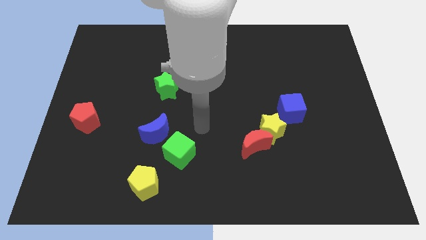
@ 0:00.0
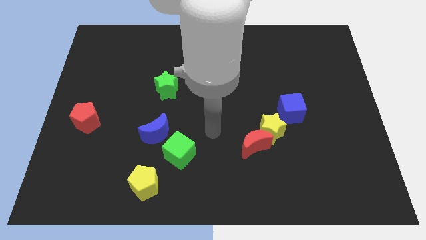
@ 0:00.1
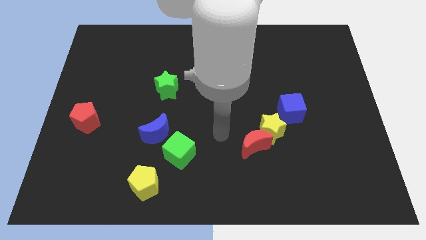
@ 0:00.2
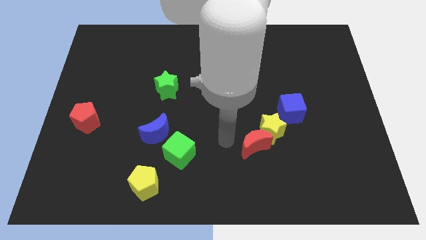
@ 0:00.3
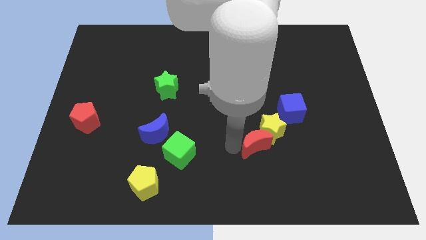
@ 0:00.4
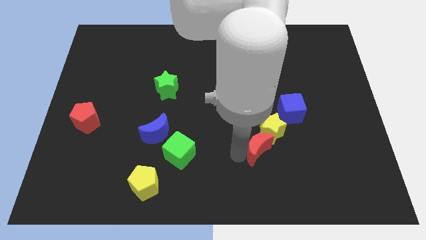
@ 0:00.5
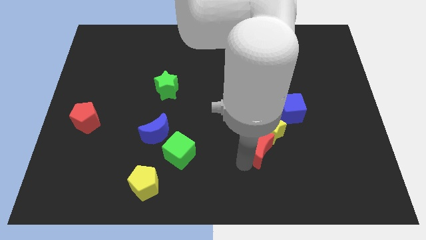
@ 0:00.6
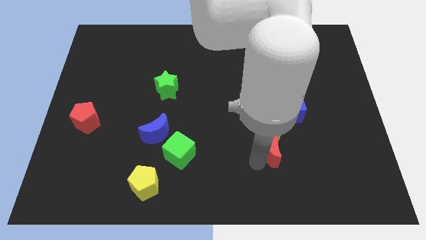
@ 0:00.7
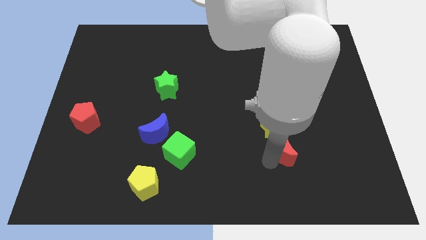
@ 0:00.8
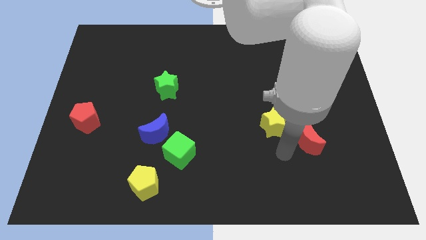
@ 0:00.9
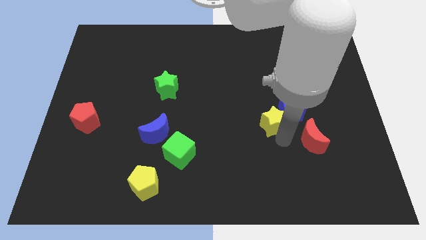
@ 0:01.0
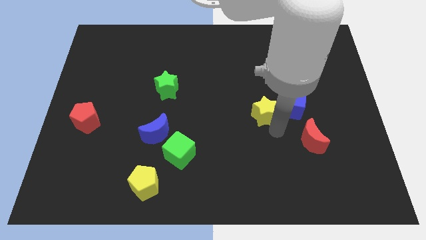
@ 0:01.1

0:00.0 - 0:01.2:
move the red moon away from the yellow star

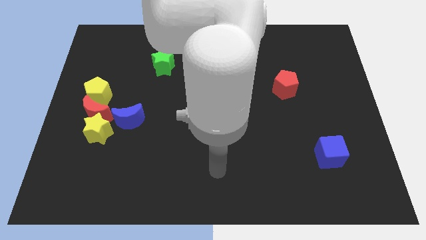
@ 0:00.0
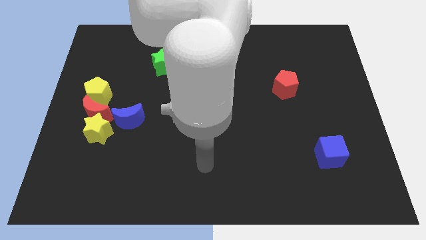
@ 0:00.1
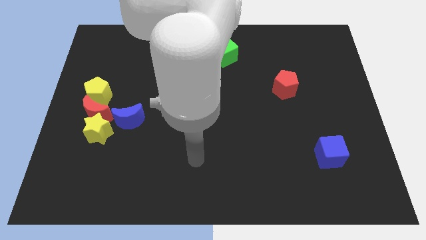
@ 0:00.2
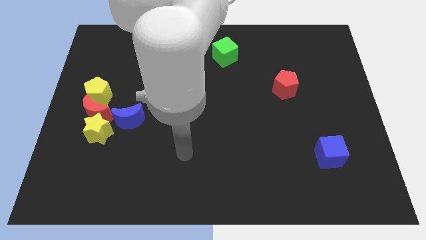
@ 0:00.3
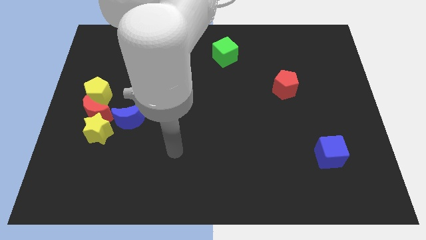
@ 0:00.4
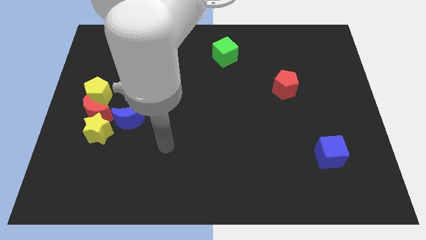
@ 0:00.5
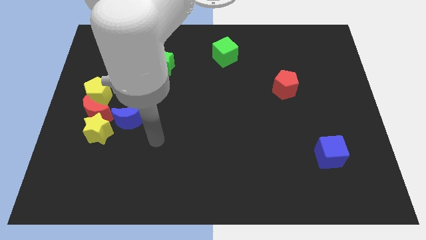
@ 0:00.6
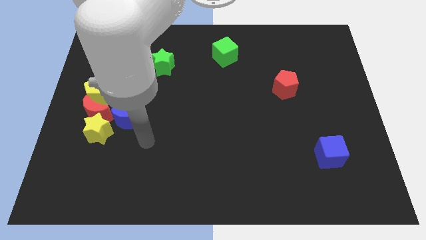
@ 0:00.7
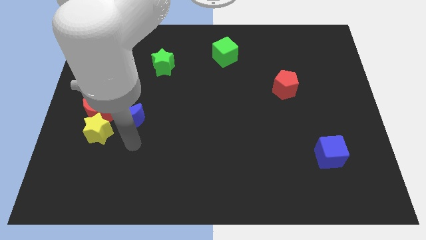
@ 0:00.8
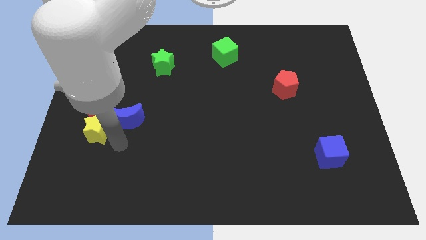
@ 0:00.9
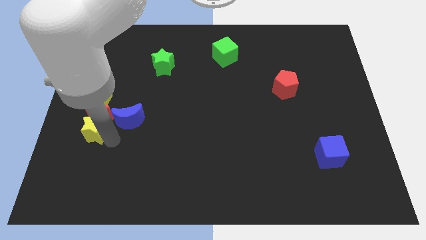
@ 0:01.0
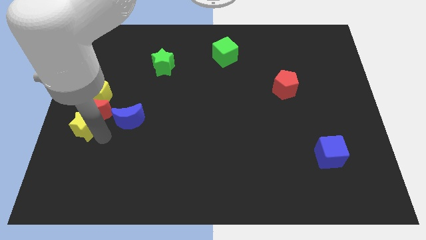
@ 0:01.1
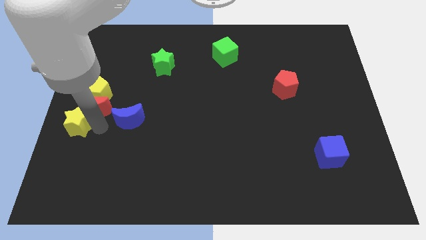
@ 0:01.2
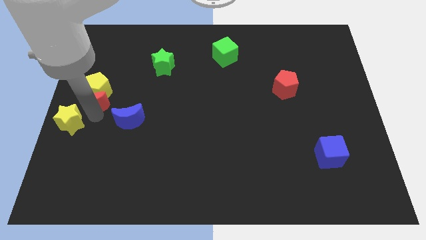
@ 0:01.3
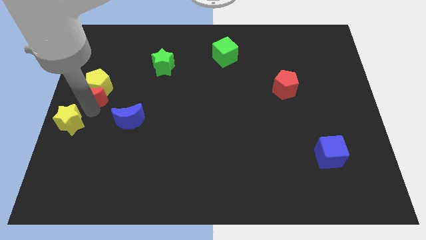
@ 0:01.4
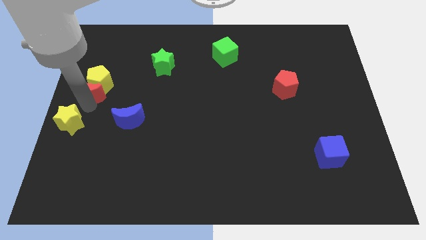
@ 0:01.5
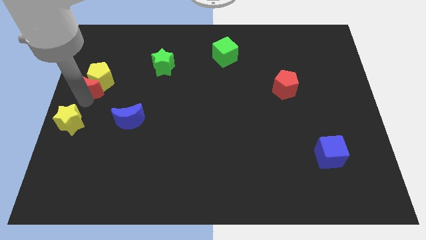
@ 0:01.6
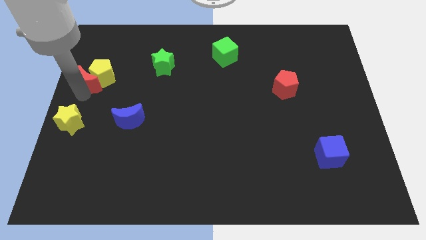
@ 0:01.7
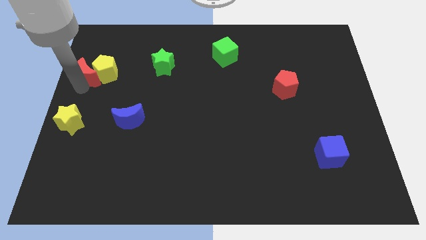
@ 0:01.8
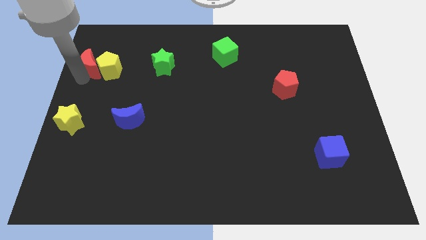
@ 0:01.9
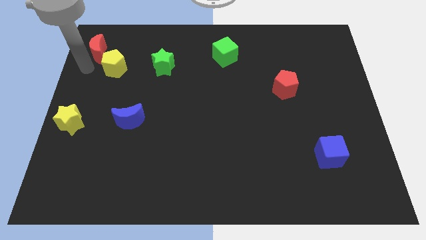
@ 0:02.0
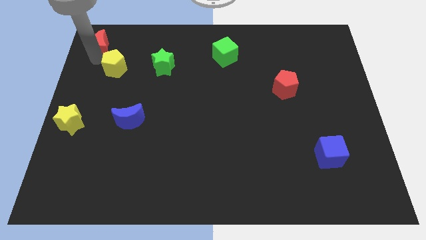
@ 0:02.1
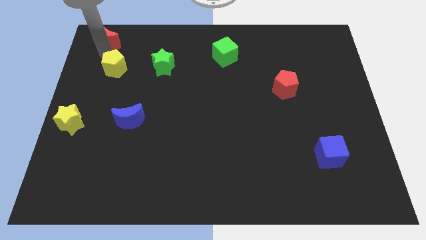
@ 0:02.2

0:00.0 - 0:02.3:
move the yellow pentagon away from the red moon

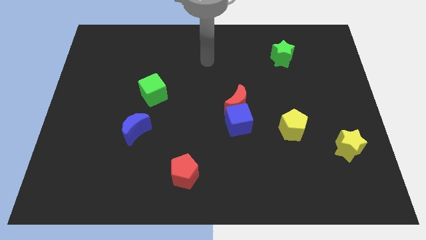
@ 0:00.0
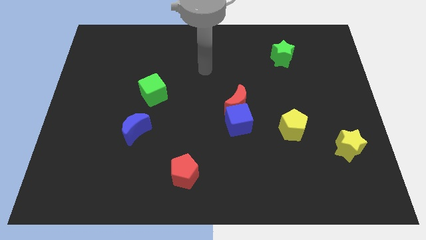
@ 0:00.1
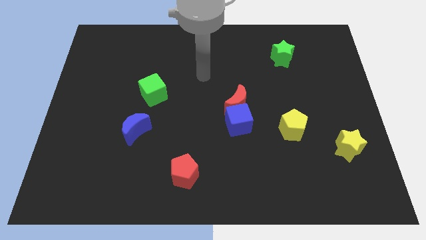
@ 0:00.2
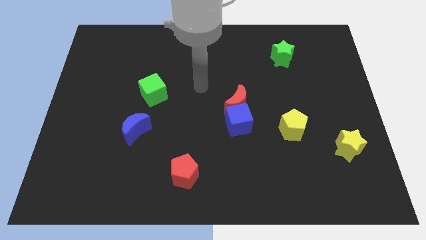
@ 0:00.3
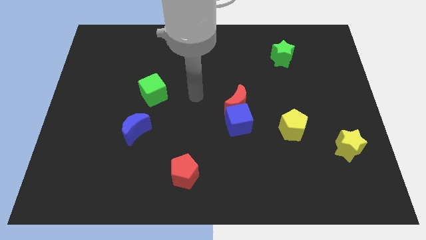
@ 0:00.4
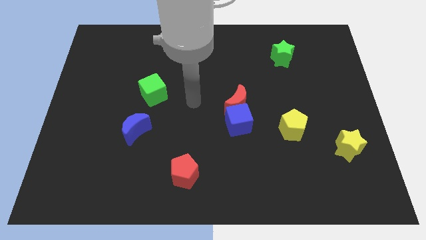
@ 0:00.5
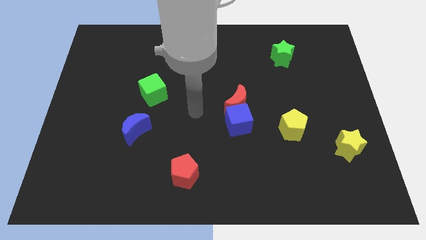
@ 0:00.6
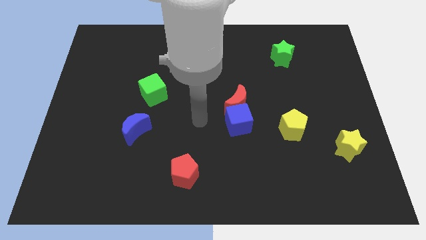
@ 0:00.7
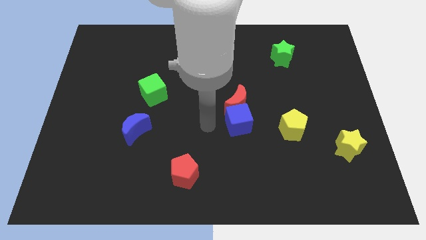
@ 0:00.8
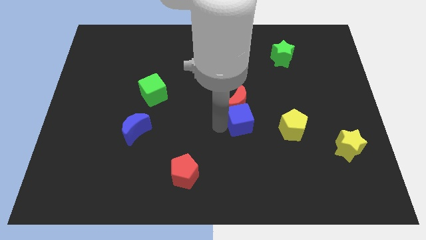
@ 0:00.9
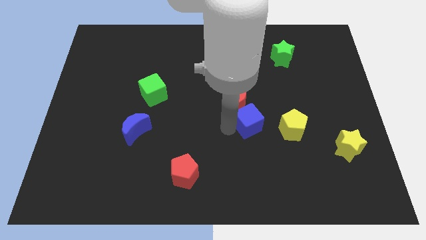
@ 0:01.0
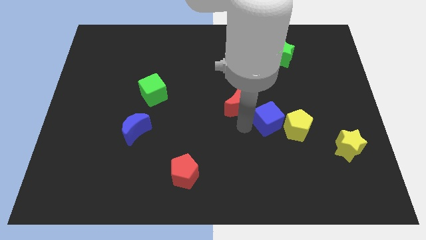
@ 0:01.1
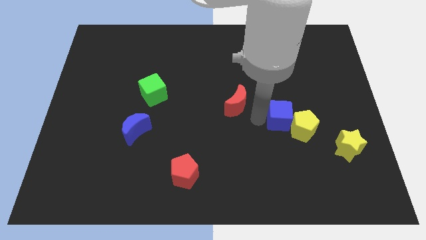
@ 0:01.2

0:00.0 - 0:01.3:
move the red moon away from the blue cube

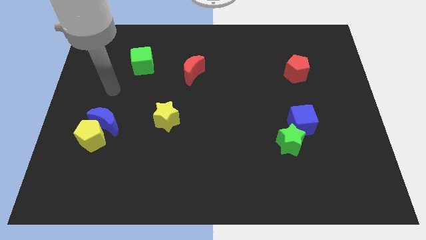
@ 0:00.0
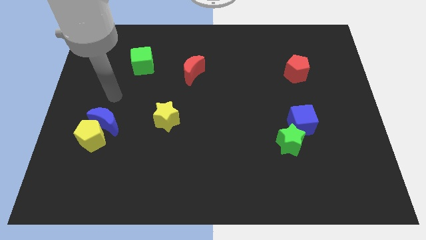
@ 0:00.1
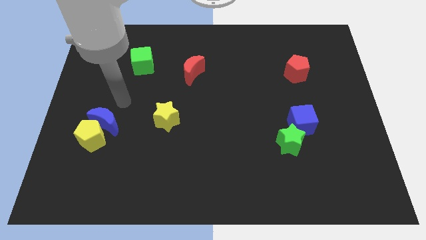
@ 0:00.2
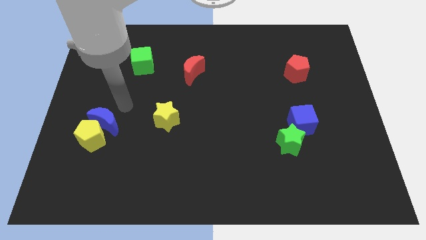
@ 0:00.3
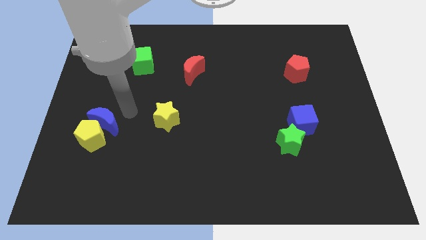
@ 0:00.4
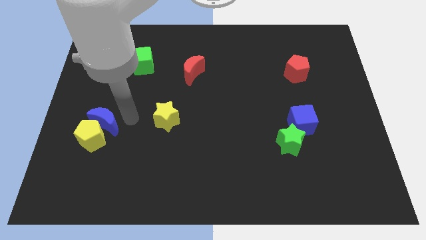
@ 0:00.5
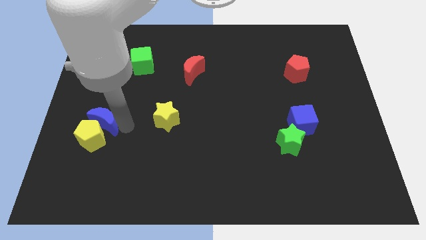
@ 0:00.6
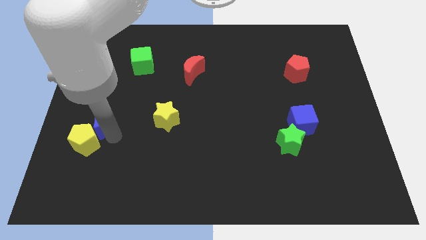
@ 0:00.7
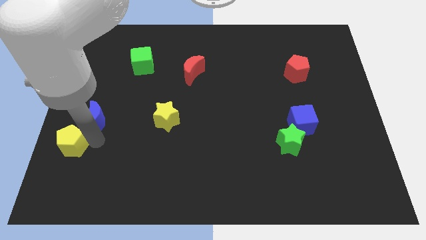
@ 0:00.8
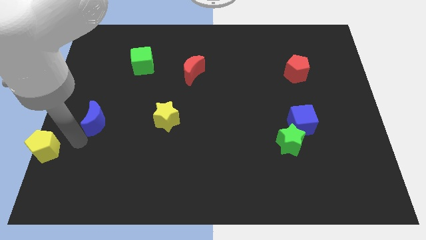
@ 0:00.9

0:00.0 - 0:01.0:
pull the blue moon apart from the yellow pentagon

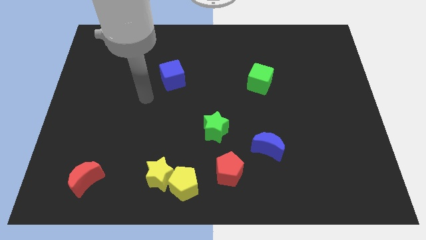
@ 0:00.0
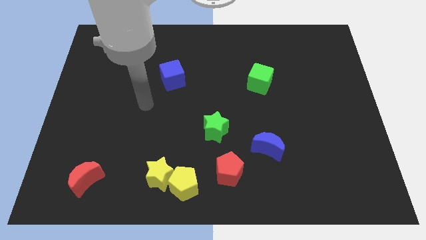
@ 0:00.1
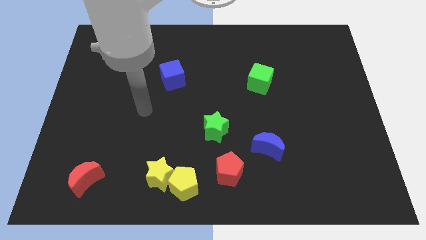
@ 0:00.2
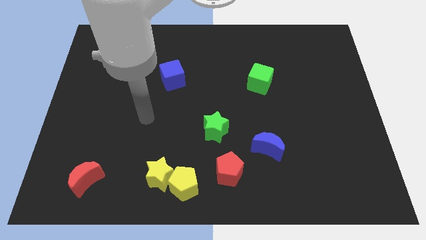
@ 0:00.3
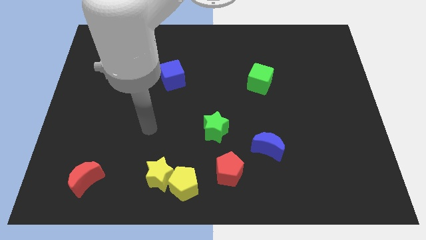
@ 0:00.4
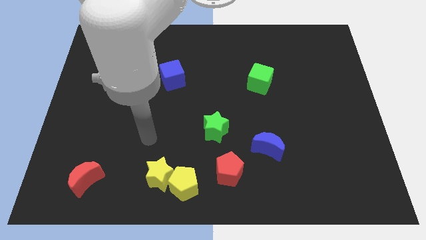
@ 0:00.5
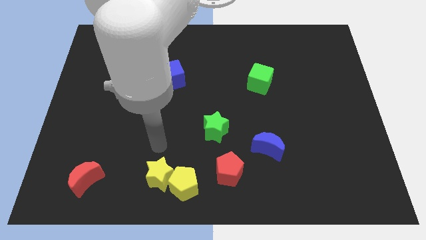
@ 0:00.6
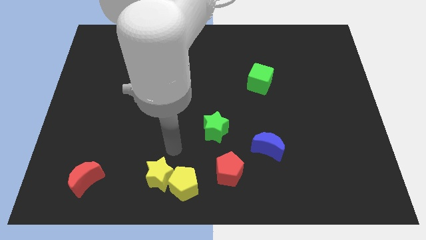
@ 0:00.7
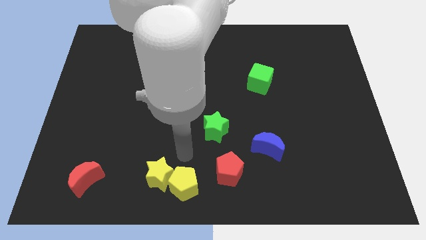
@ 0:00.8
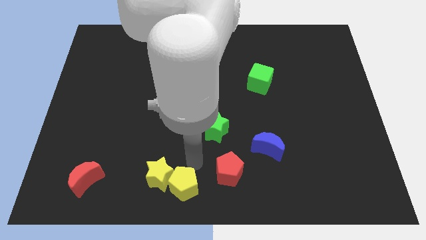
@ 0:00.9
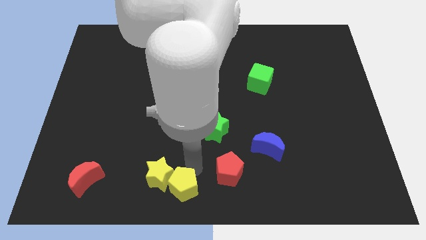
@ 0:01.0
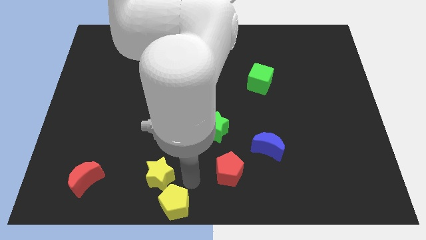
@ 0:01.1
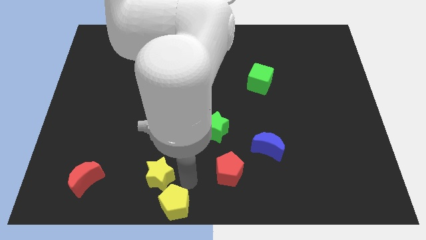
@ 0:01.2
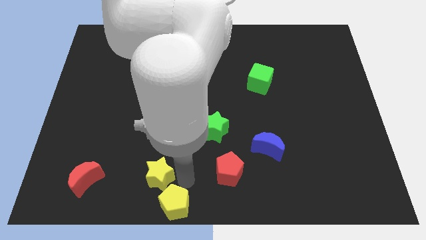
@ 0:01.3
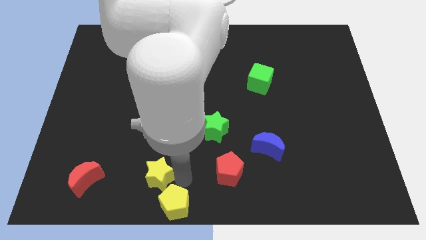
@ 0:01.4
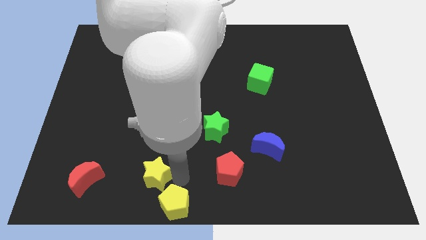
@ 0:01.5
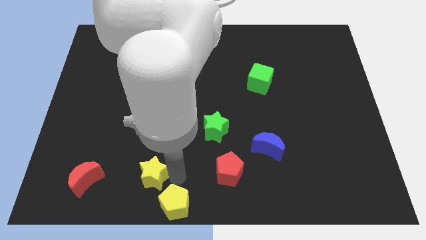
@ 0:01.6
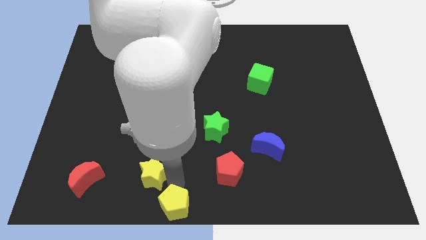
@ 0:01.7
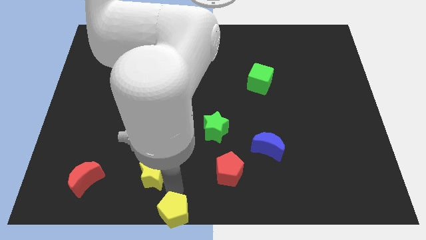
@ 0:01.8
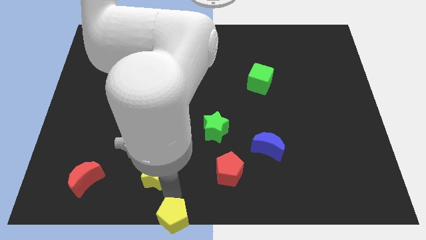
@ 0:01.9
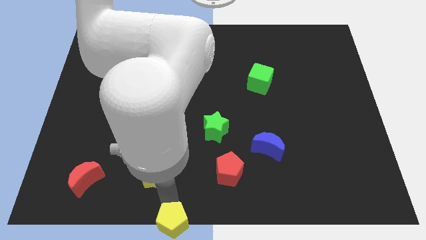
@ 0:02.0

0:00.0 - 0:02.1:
separate the yellow star from the yellow pentagon

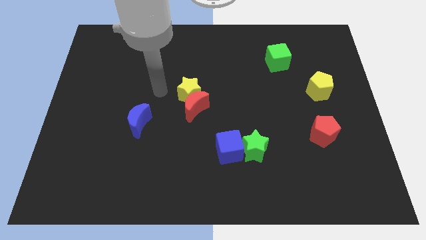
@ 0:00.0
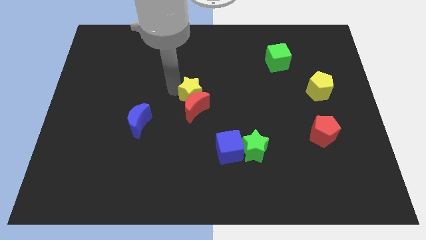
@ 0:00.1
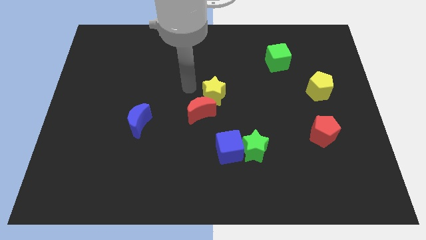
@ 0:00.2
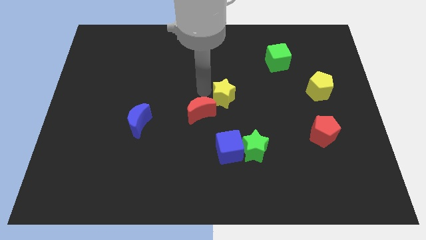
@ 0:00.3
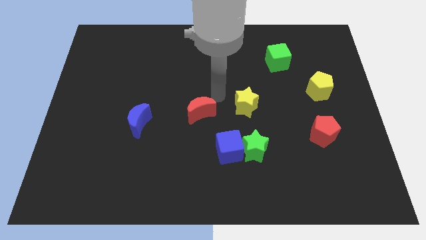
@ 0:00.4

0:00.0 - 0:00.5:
pull the red moon apart from the yellow star

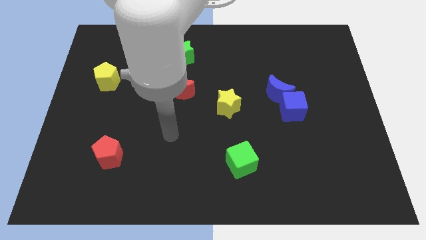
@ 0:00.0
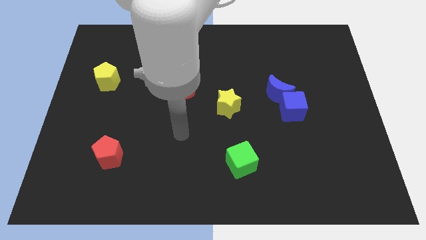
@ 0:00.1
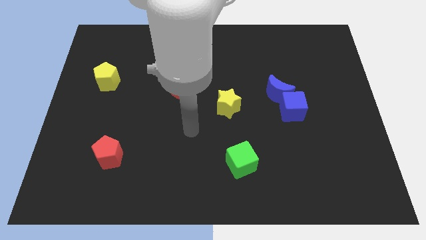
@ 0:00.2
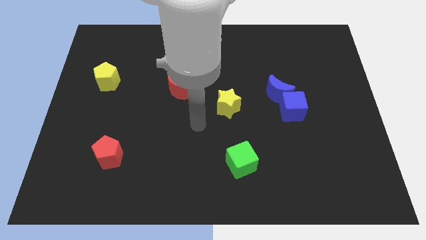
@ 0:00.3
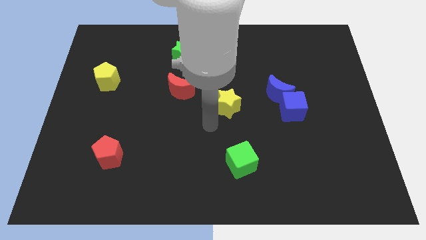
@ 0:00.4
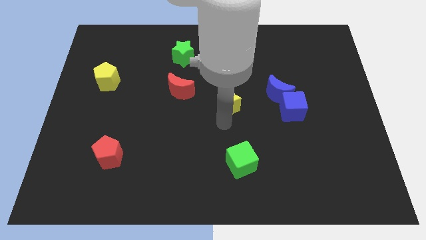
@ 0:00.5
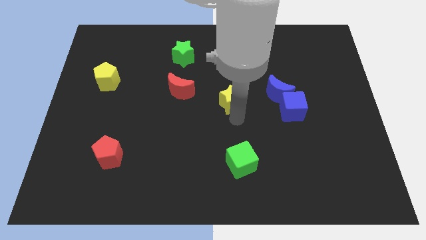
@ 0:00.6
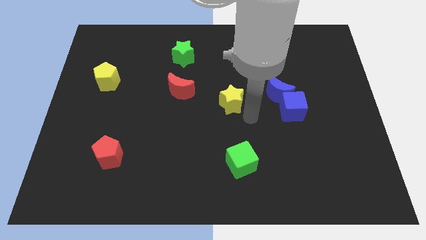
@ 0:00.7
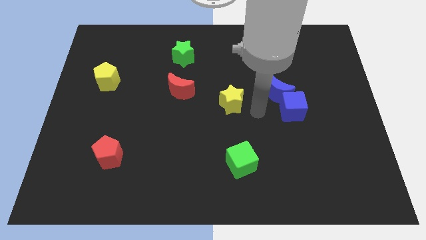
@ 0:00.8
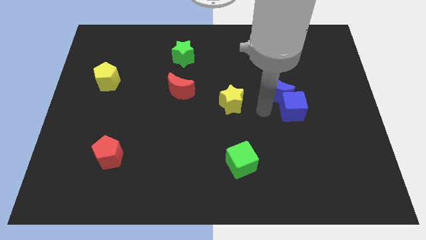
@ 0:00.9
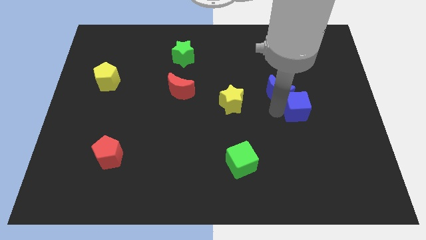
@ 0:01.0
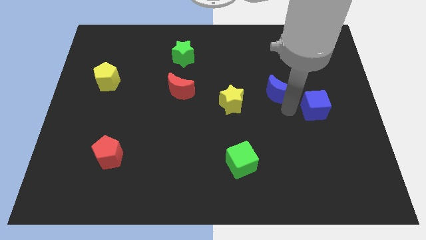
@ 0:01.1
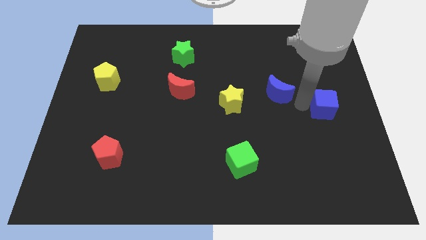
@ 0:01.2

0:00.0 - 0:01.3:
move the blue moon away from the blue cube
